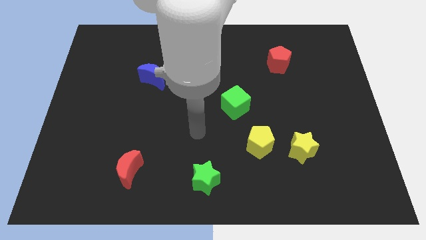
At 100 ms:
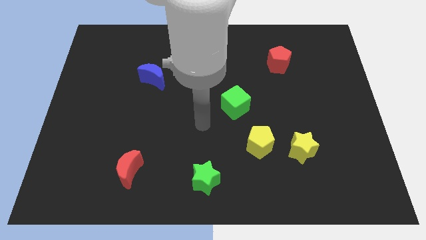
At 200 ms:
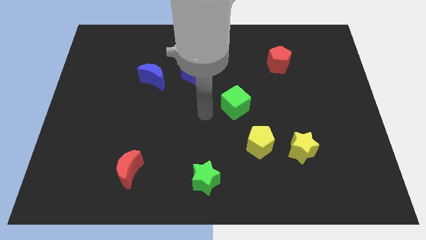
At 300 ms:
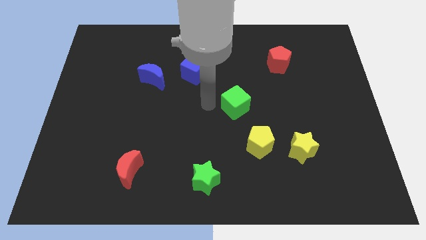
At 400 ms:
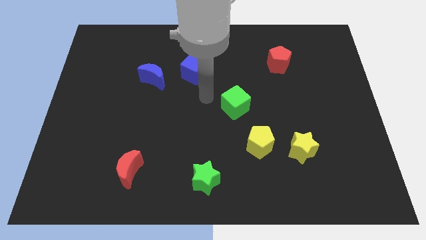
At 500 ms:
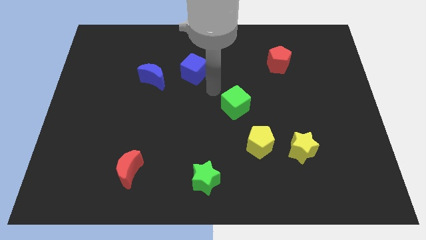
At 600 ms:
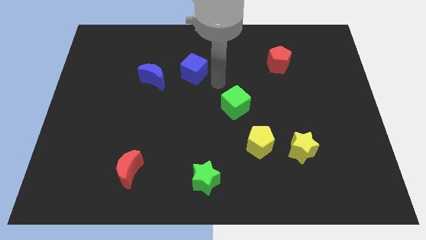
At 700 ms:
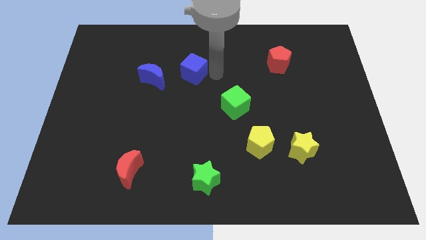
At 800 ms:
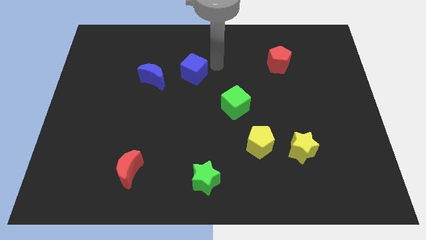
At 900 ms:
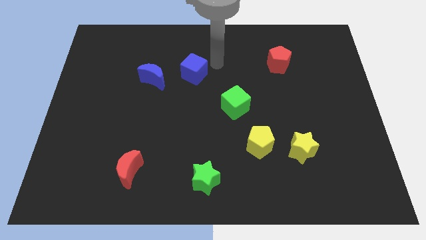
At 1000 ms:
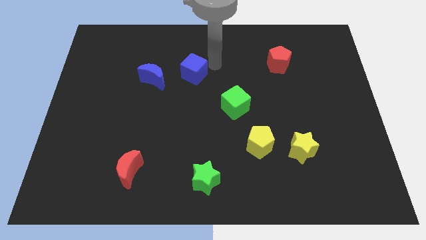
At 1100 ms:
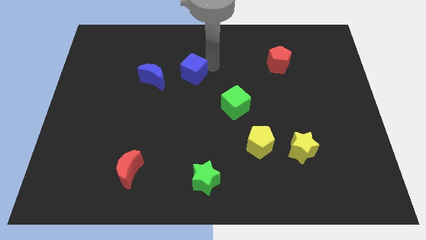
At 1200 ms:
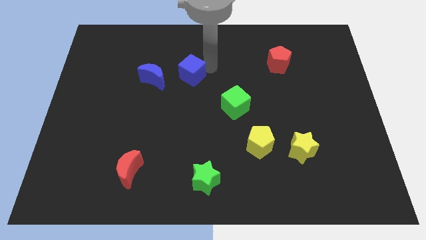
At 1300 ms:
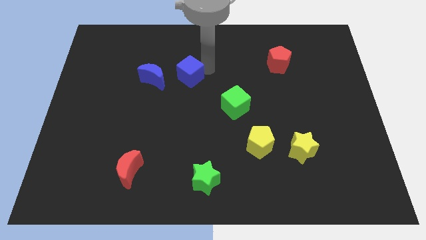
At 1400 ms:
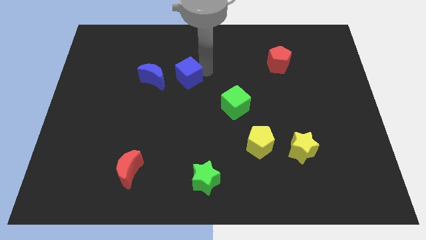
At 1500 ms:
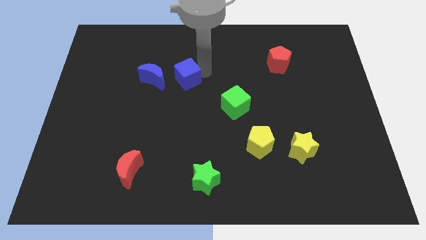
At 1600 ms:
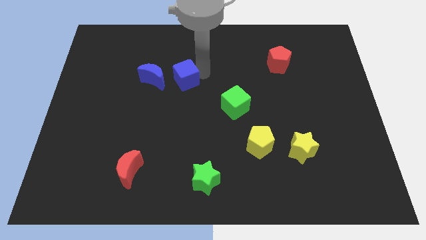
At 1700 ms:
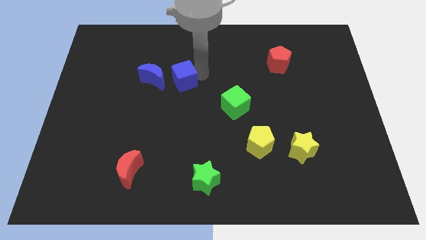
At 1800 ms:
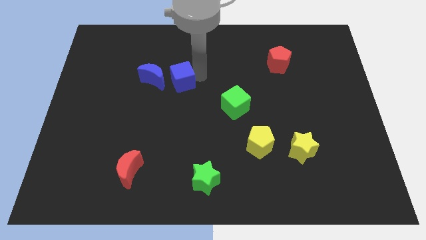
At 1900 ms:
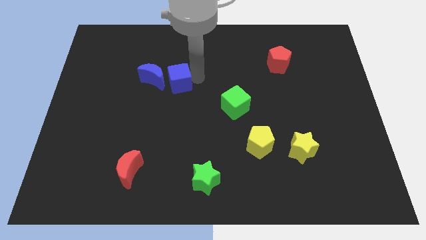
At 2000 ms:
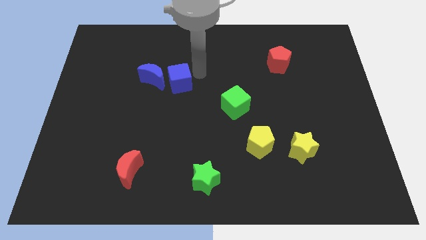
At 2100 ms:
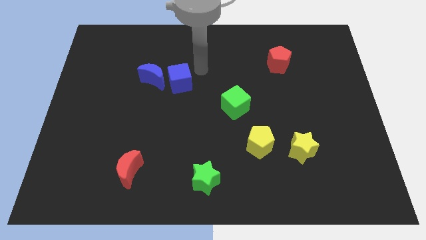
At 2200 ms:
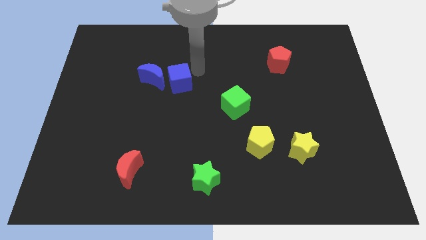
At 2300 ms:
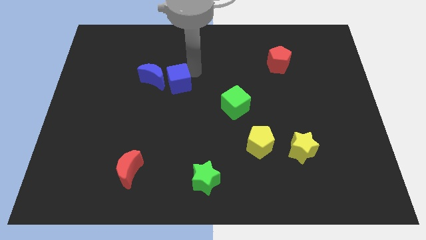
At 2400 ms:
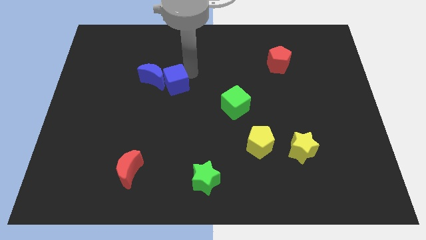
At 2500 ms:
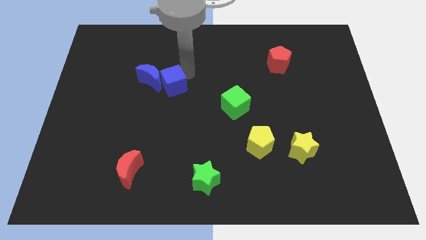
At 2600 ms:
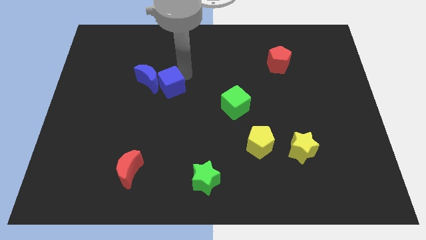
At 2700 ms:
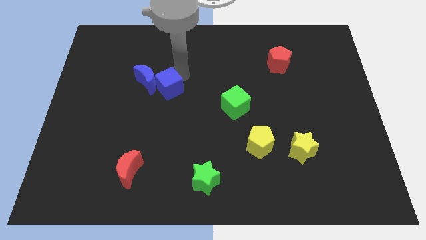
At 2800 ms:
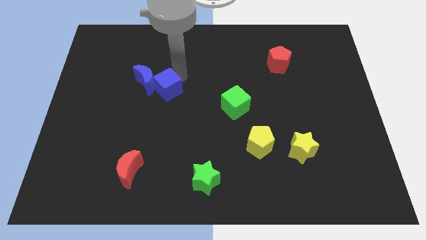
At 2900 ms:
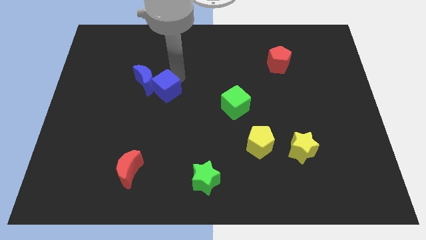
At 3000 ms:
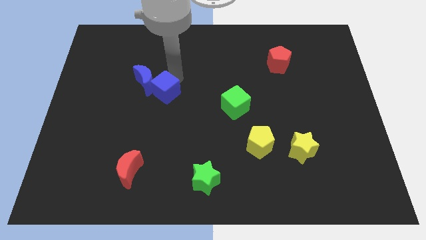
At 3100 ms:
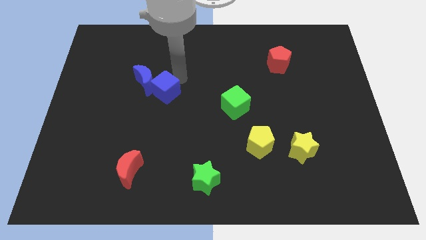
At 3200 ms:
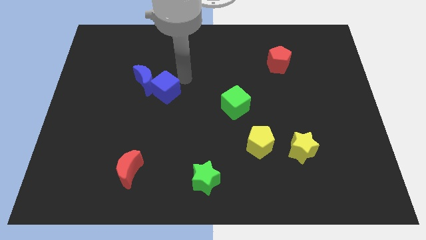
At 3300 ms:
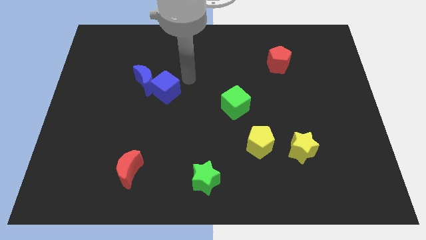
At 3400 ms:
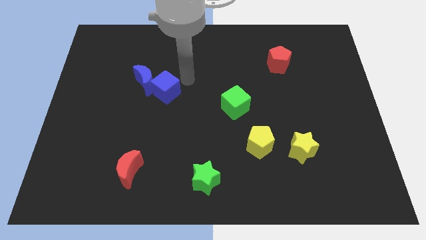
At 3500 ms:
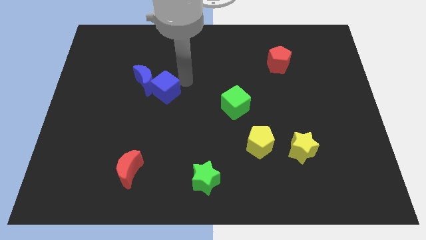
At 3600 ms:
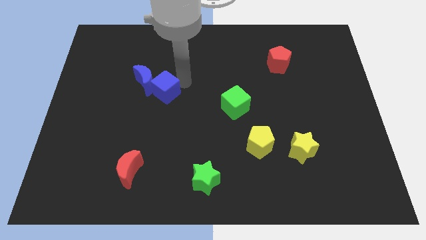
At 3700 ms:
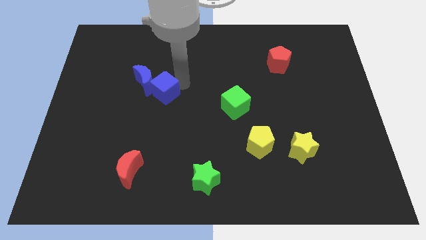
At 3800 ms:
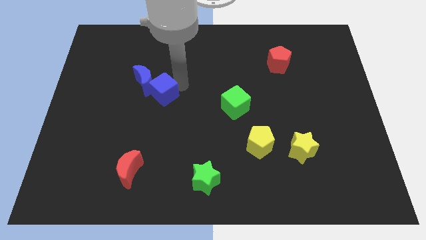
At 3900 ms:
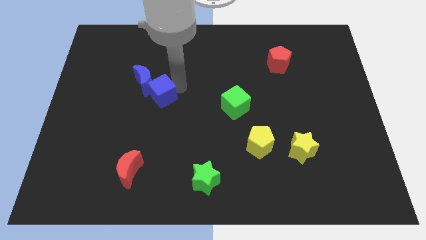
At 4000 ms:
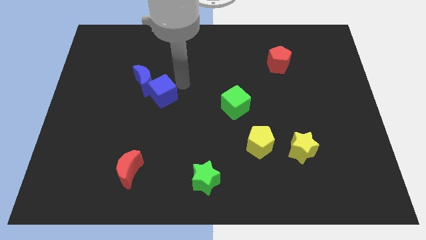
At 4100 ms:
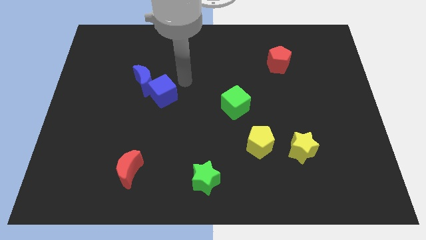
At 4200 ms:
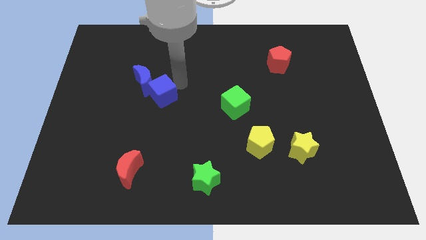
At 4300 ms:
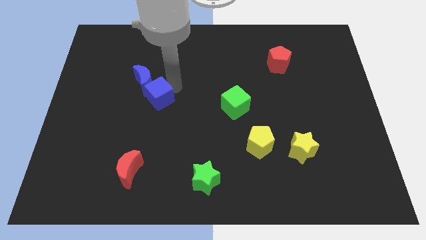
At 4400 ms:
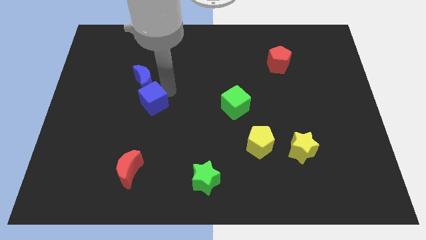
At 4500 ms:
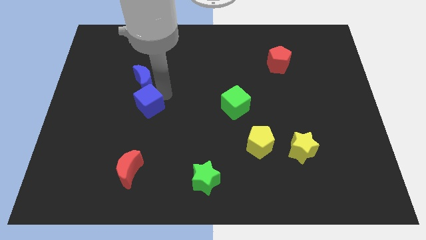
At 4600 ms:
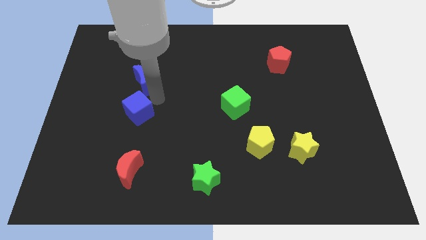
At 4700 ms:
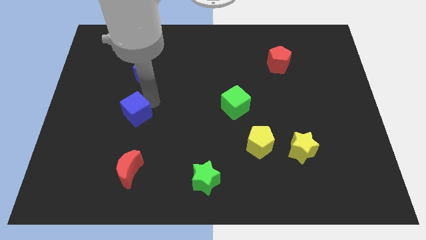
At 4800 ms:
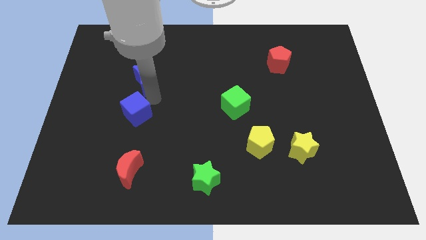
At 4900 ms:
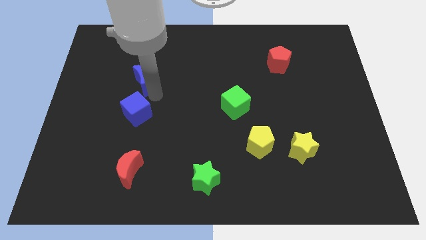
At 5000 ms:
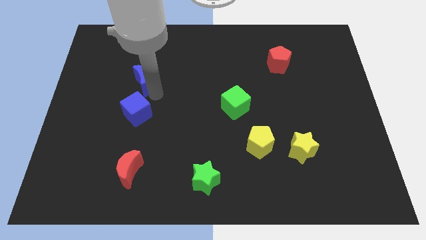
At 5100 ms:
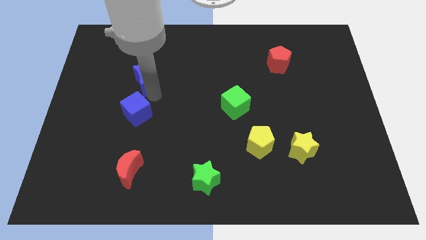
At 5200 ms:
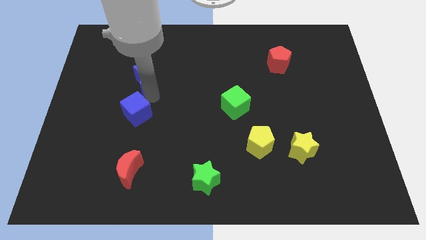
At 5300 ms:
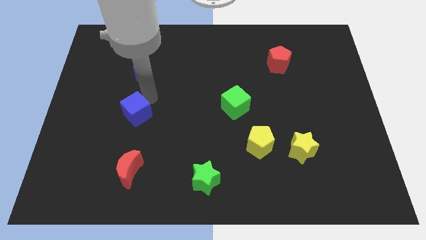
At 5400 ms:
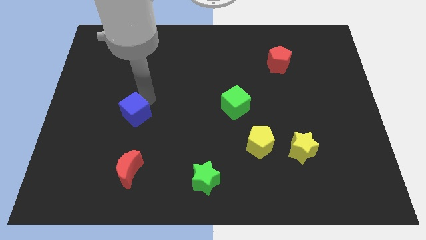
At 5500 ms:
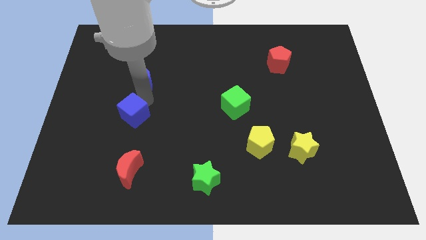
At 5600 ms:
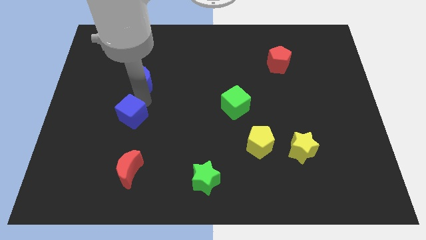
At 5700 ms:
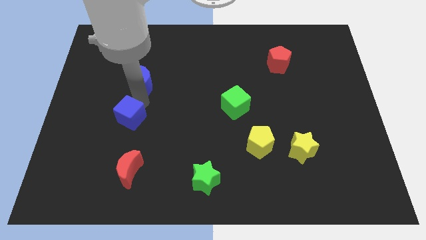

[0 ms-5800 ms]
push the blue cube down and left diagonally

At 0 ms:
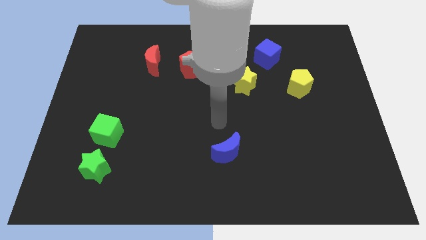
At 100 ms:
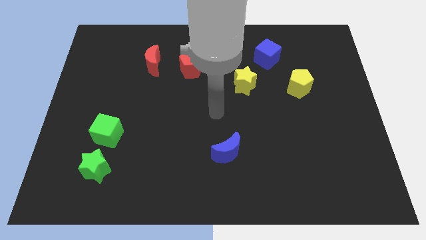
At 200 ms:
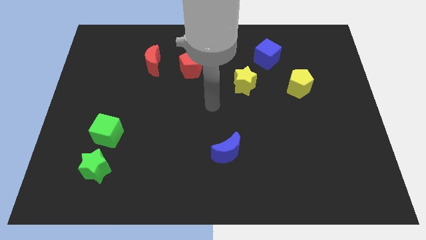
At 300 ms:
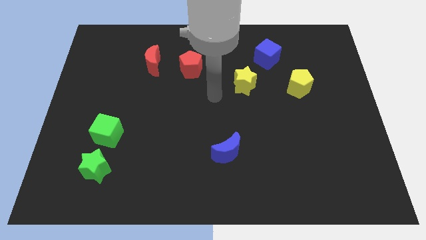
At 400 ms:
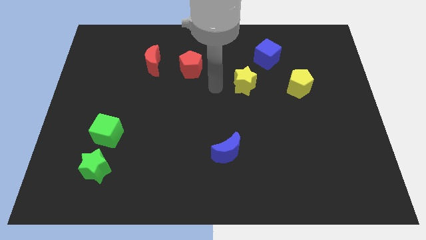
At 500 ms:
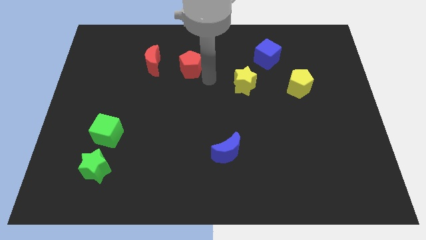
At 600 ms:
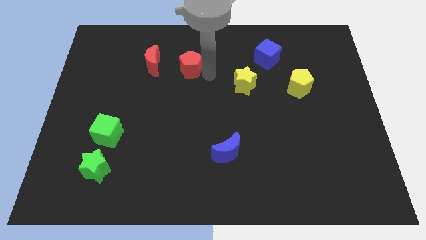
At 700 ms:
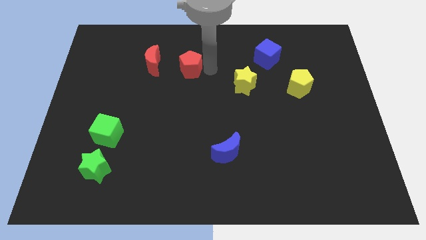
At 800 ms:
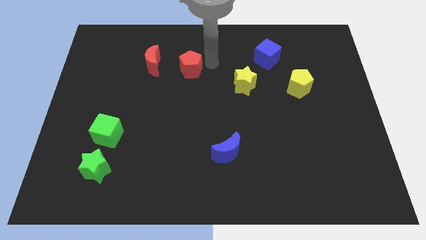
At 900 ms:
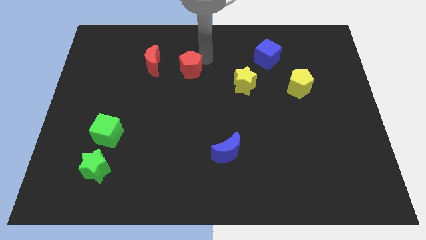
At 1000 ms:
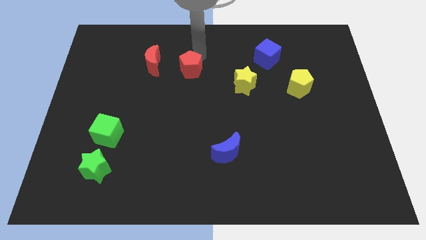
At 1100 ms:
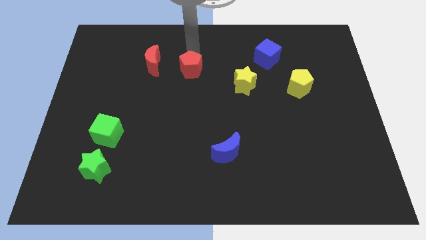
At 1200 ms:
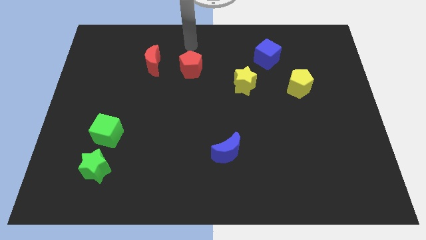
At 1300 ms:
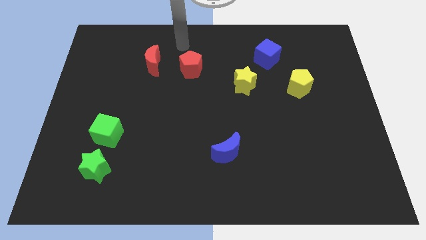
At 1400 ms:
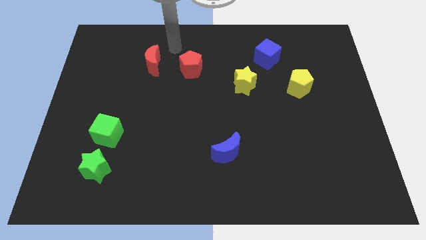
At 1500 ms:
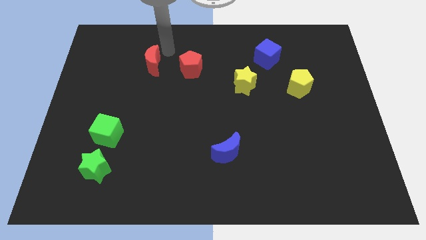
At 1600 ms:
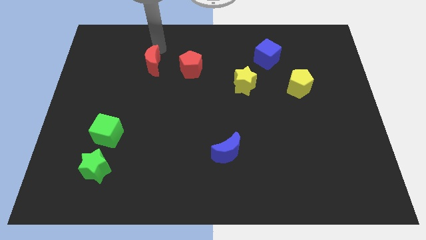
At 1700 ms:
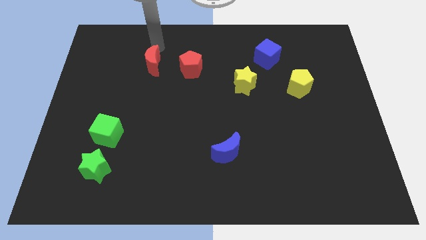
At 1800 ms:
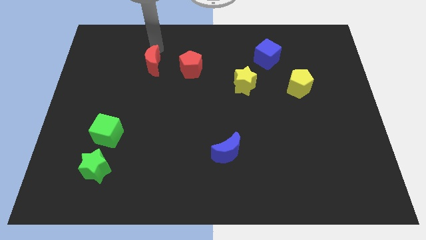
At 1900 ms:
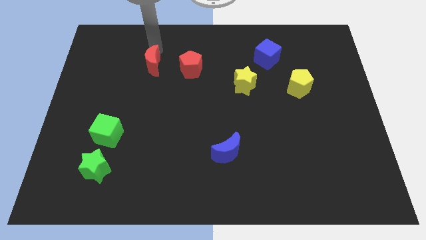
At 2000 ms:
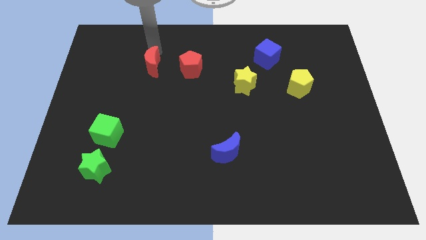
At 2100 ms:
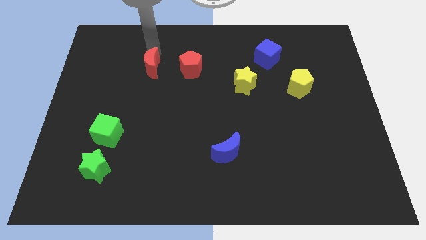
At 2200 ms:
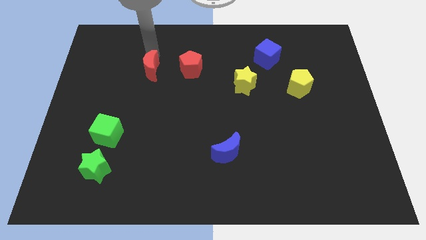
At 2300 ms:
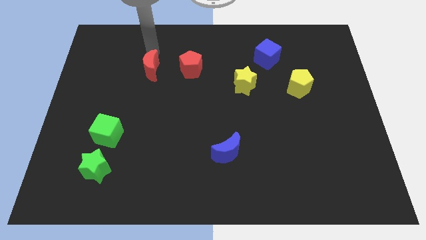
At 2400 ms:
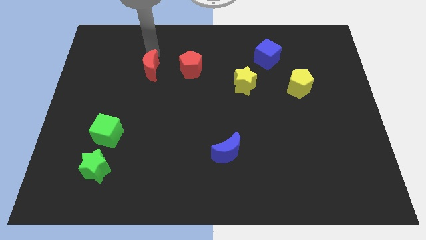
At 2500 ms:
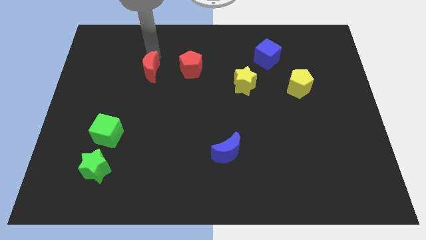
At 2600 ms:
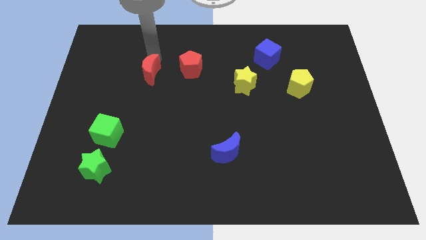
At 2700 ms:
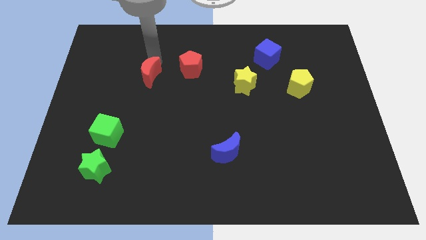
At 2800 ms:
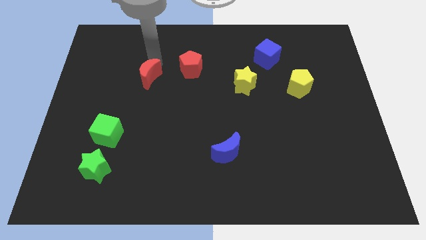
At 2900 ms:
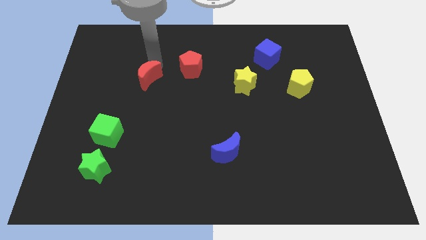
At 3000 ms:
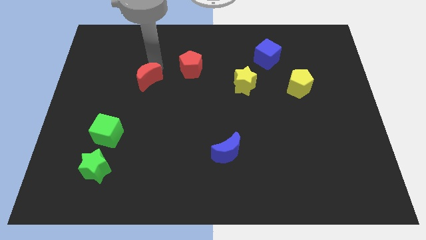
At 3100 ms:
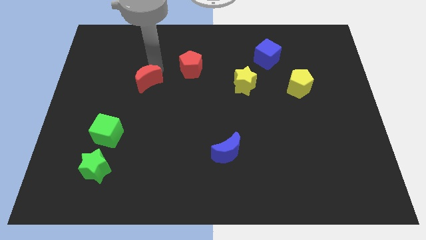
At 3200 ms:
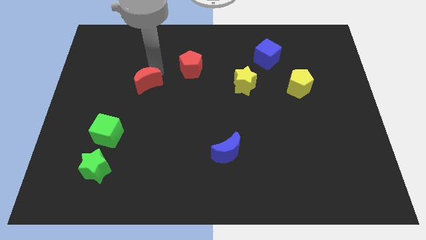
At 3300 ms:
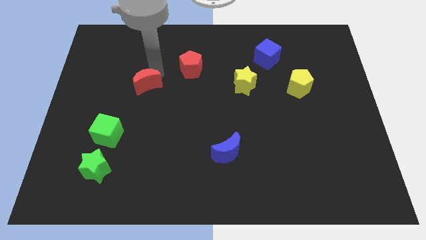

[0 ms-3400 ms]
push the red moon down a little bit
